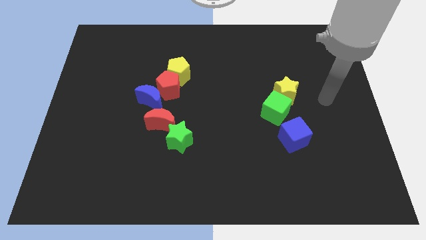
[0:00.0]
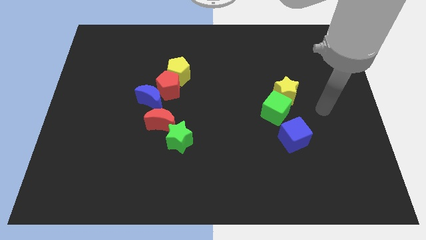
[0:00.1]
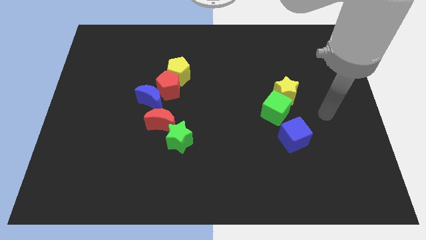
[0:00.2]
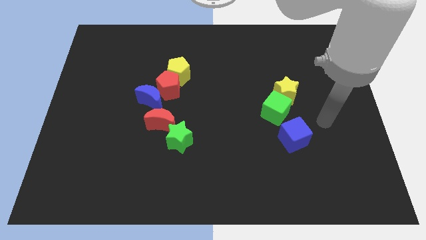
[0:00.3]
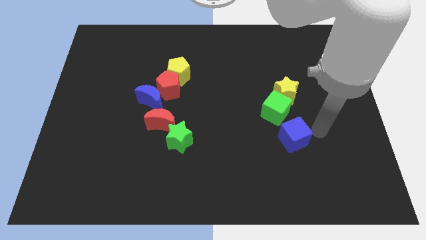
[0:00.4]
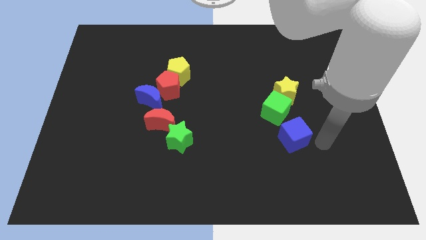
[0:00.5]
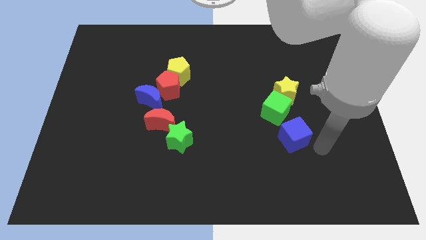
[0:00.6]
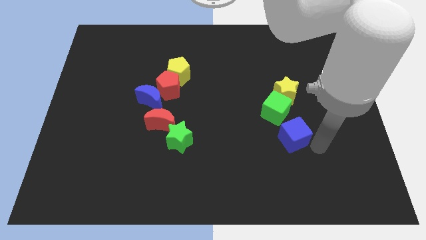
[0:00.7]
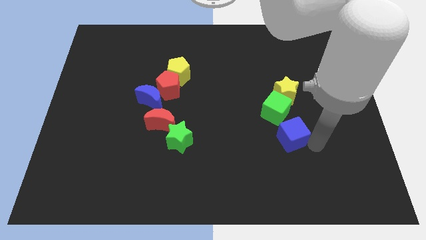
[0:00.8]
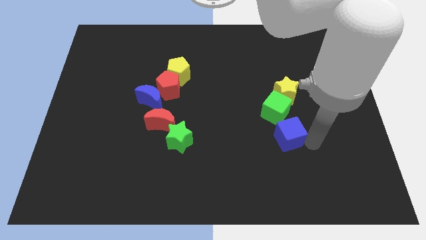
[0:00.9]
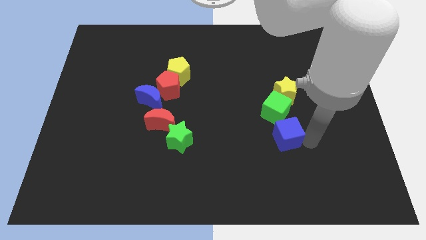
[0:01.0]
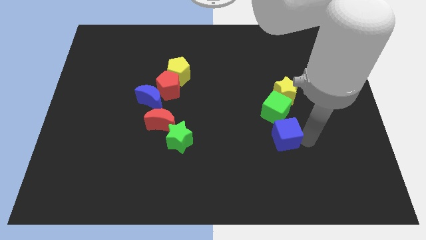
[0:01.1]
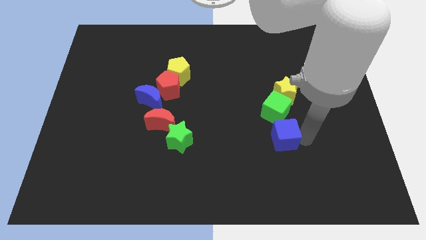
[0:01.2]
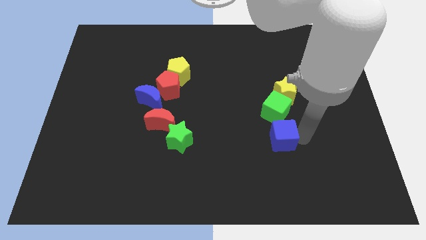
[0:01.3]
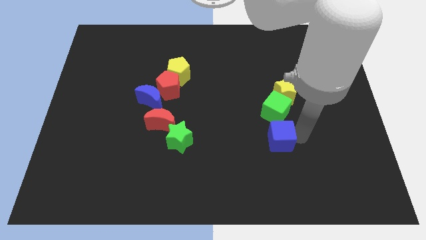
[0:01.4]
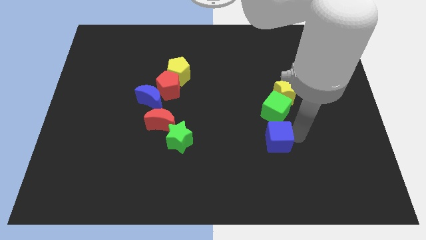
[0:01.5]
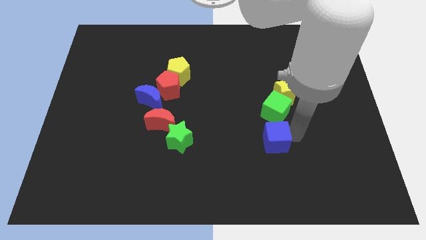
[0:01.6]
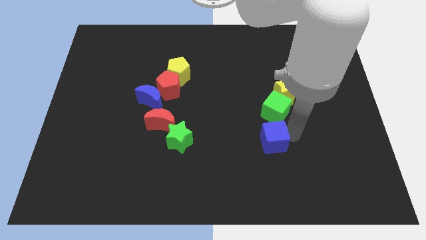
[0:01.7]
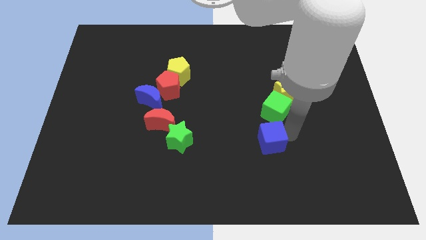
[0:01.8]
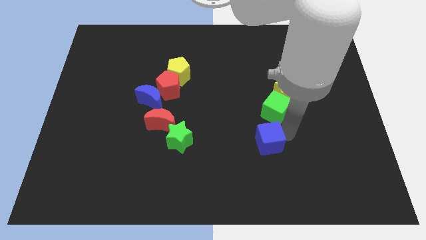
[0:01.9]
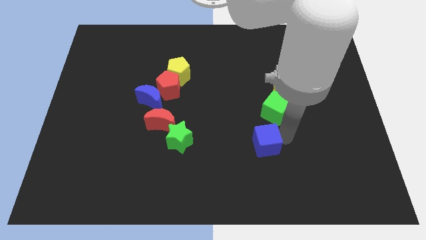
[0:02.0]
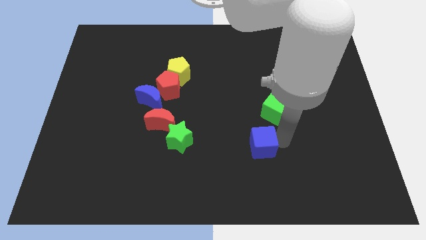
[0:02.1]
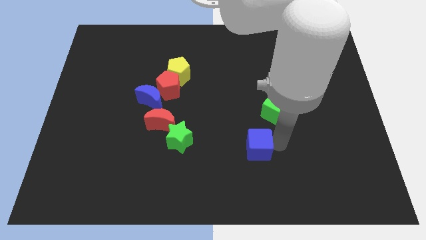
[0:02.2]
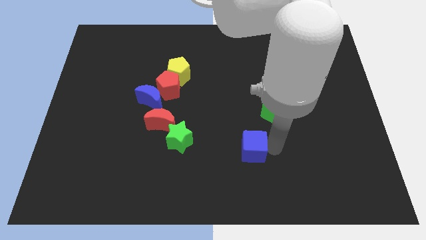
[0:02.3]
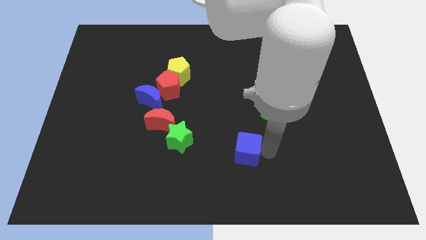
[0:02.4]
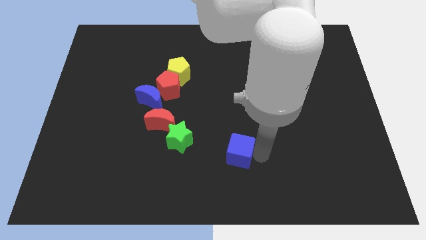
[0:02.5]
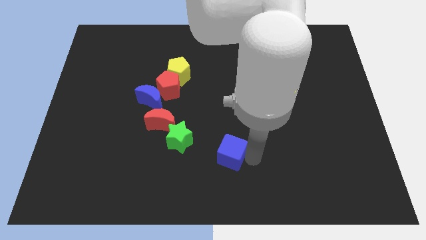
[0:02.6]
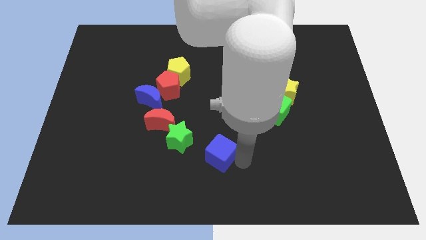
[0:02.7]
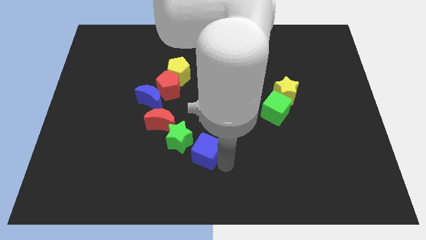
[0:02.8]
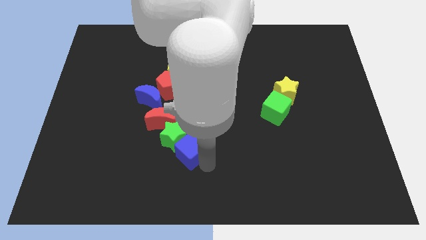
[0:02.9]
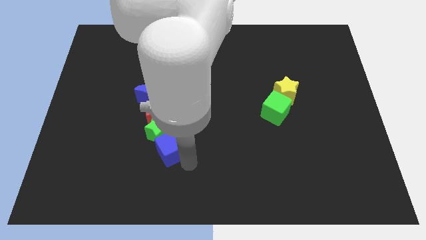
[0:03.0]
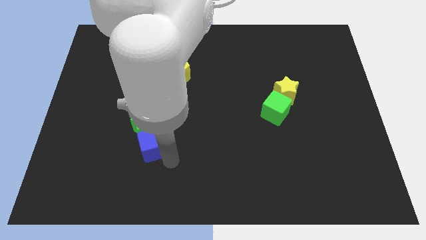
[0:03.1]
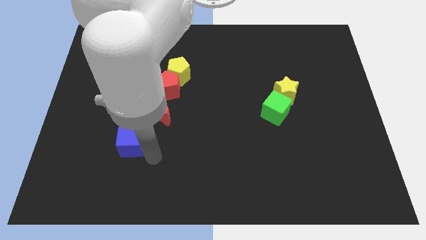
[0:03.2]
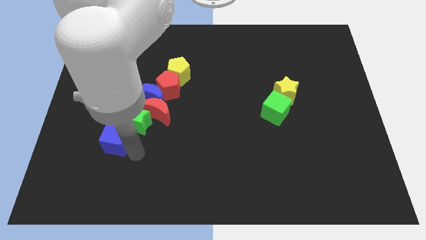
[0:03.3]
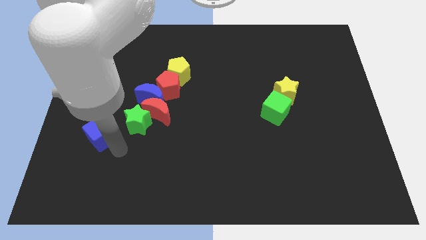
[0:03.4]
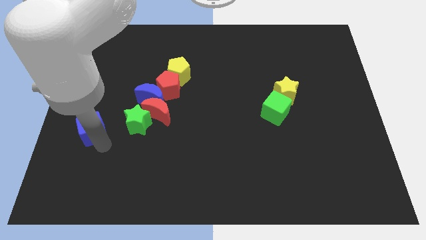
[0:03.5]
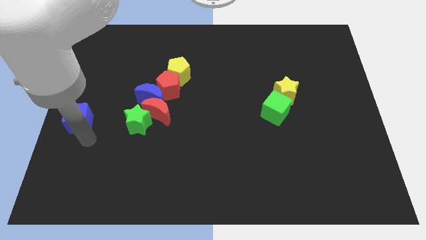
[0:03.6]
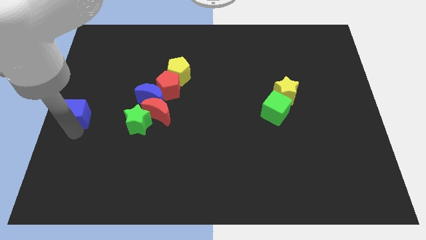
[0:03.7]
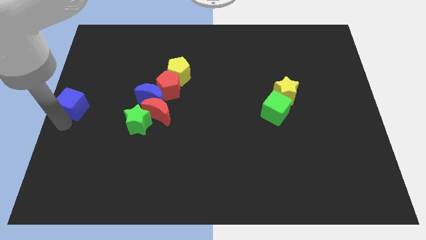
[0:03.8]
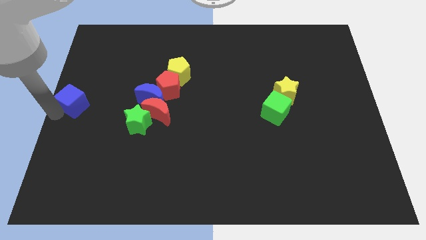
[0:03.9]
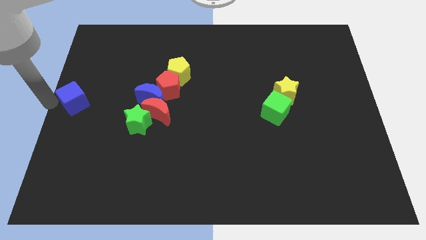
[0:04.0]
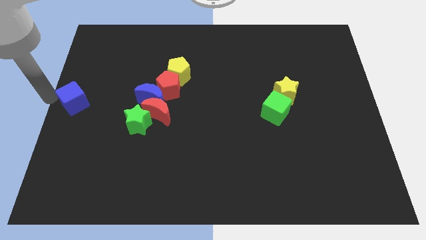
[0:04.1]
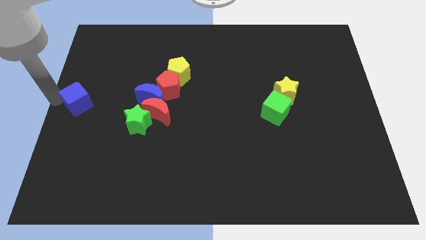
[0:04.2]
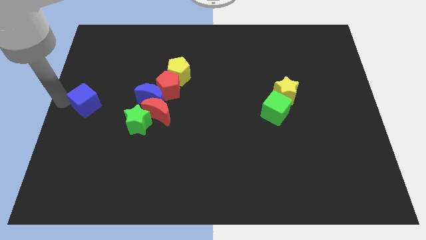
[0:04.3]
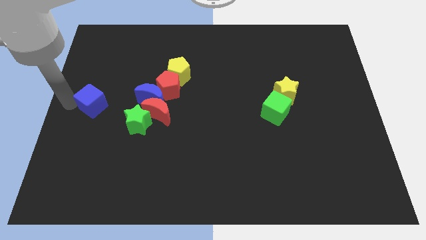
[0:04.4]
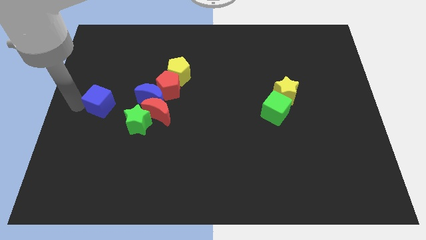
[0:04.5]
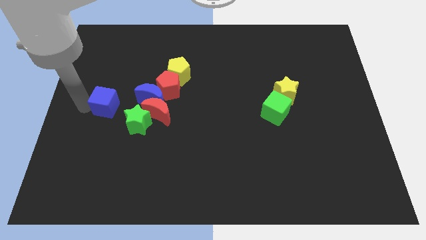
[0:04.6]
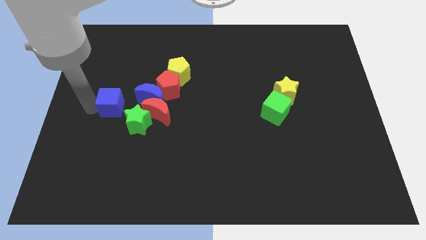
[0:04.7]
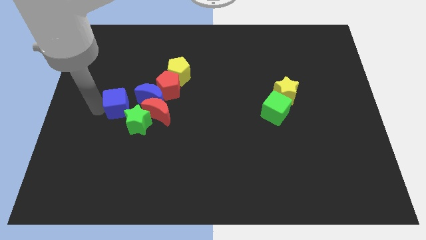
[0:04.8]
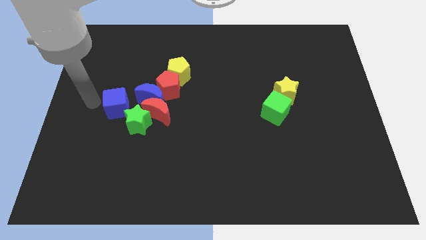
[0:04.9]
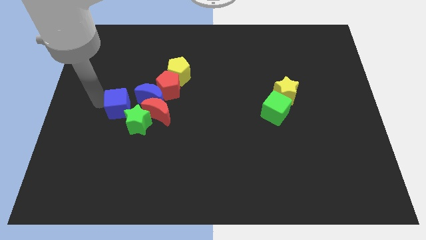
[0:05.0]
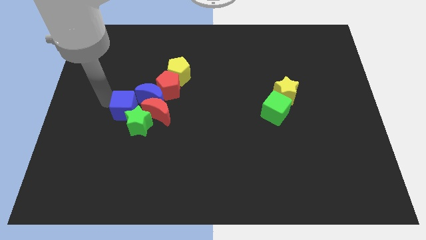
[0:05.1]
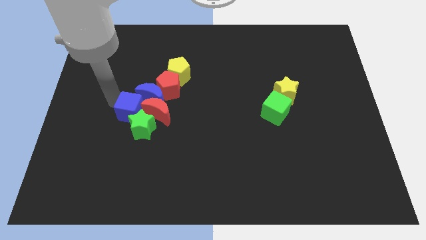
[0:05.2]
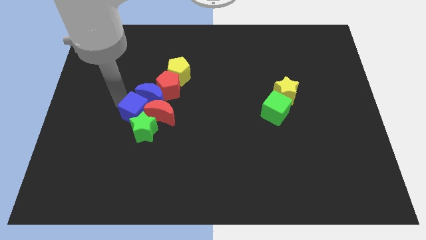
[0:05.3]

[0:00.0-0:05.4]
put the blue cube to the red moon

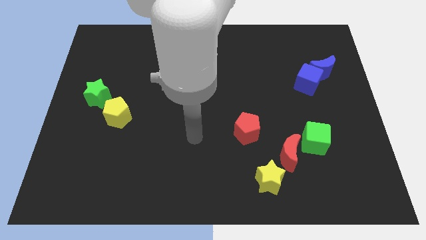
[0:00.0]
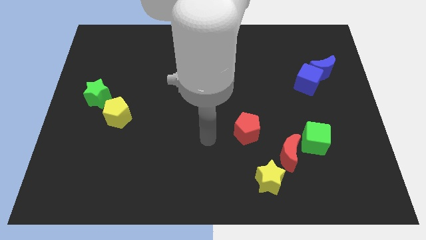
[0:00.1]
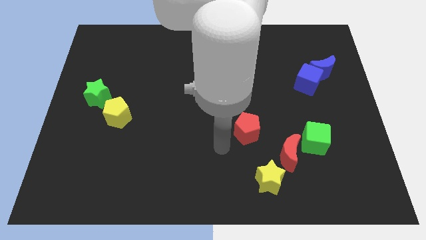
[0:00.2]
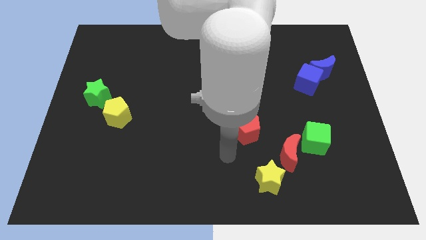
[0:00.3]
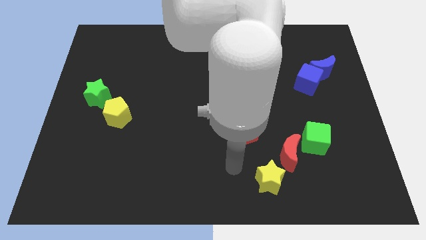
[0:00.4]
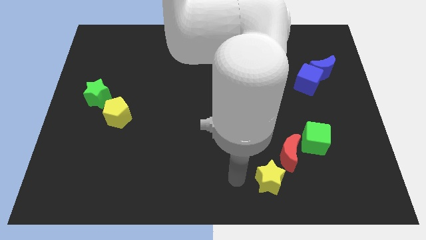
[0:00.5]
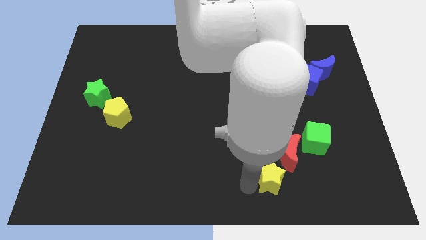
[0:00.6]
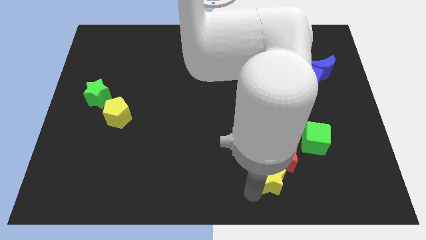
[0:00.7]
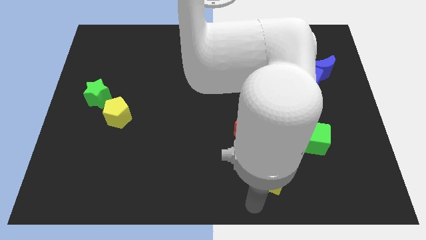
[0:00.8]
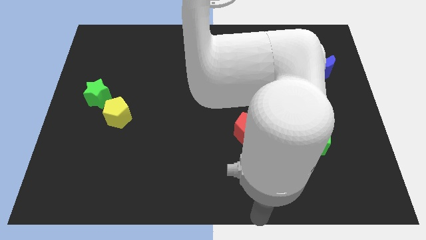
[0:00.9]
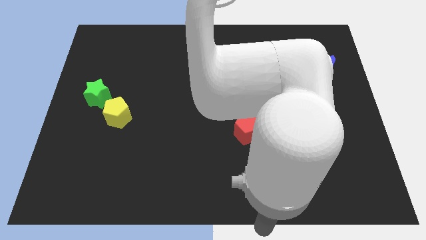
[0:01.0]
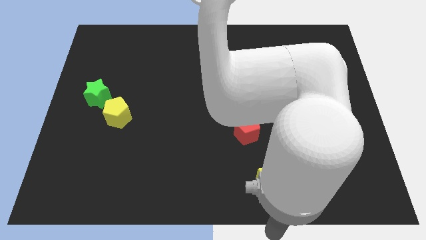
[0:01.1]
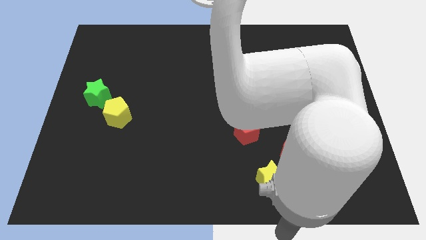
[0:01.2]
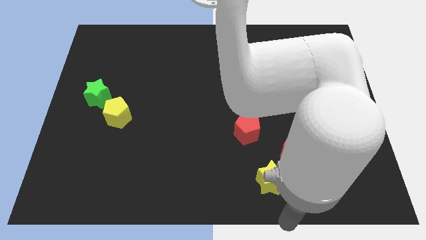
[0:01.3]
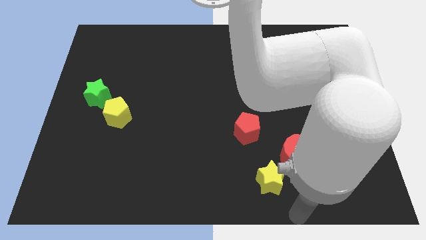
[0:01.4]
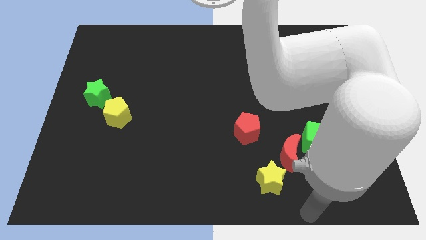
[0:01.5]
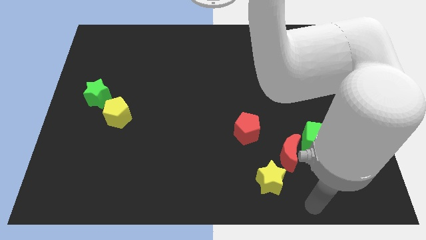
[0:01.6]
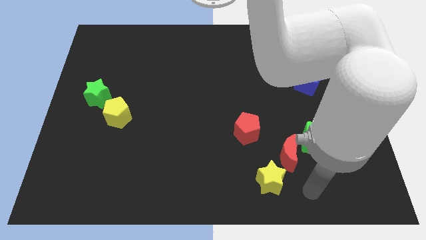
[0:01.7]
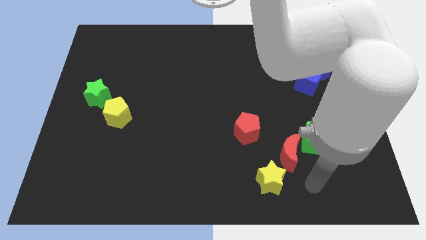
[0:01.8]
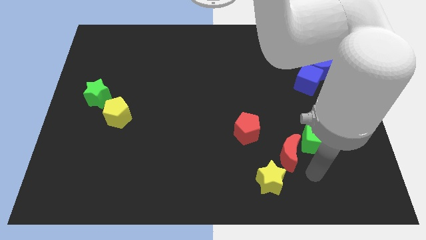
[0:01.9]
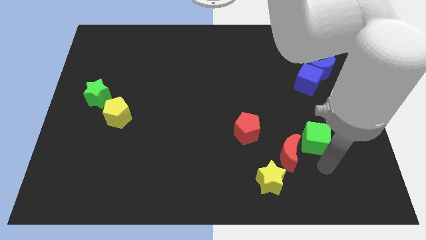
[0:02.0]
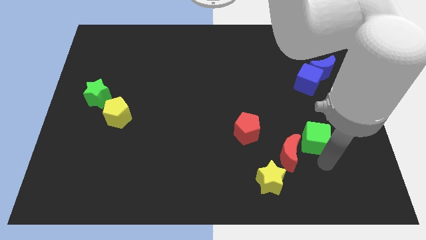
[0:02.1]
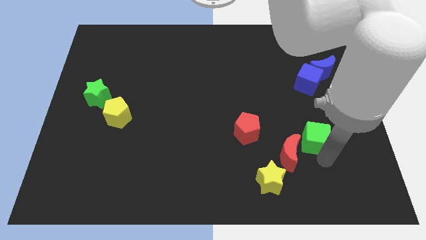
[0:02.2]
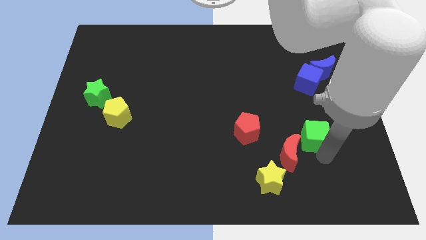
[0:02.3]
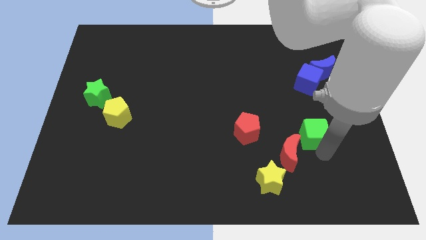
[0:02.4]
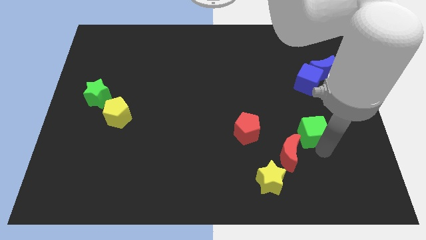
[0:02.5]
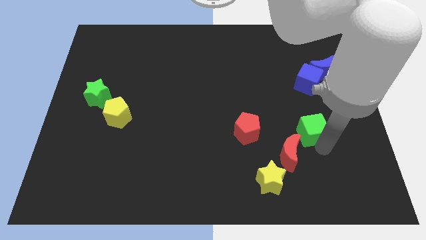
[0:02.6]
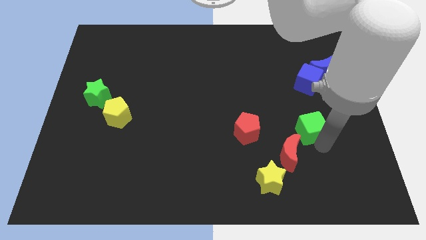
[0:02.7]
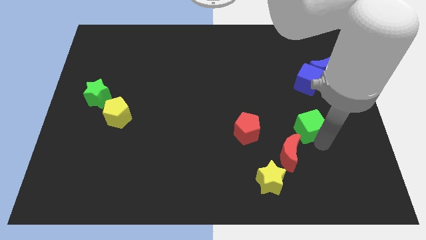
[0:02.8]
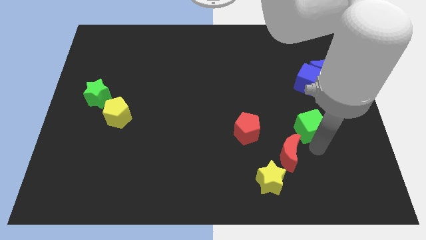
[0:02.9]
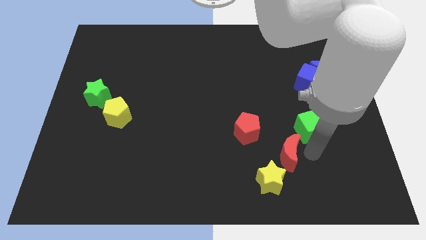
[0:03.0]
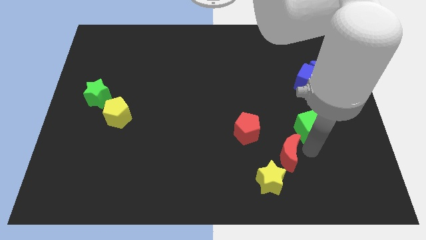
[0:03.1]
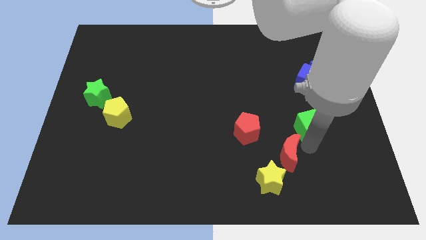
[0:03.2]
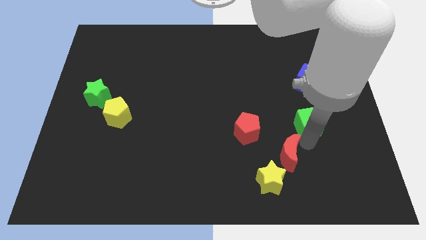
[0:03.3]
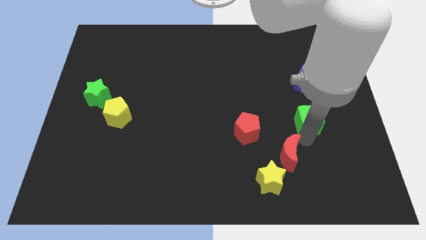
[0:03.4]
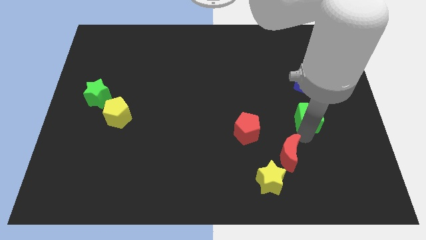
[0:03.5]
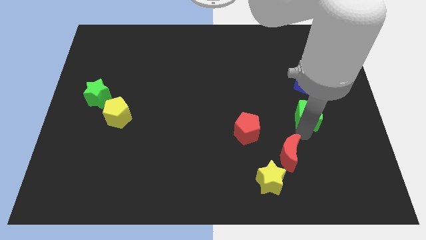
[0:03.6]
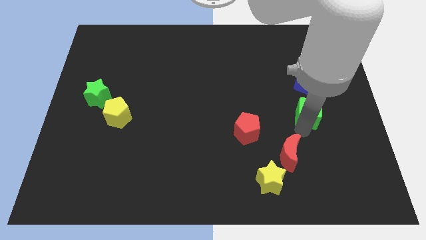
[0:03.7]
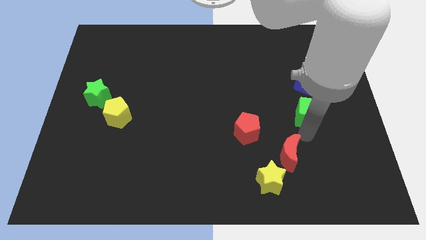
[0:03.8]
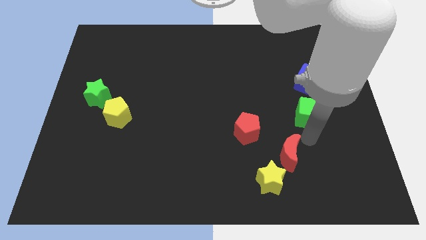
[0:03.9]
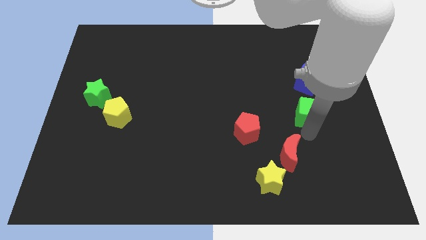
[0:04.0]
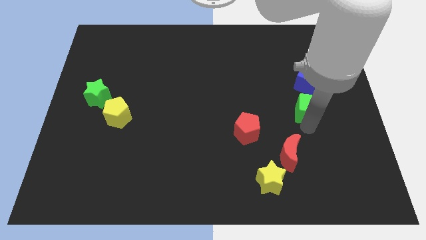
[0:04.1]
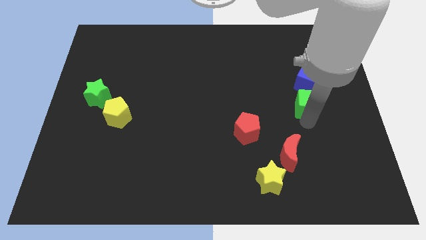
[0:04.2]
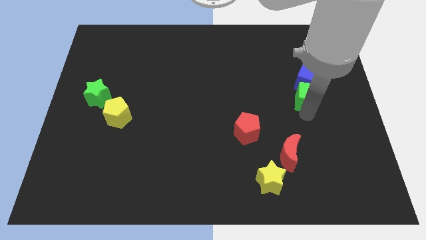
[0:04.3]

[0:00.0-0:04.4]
put the green cube to the blue cube
